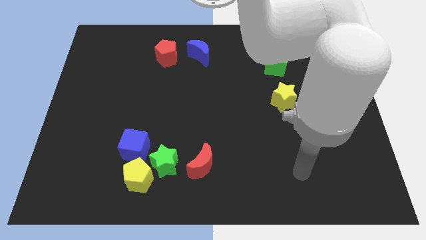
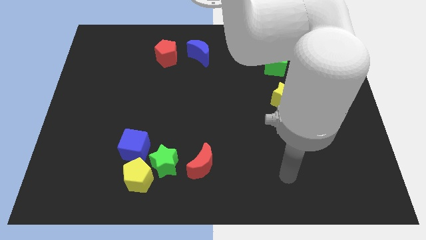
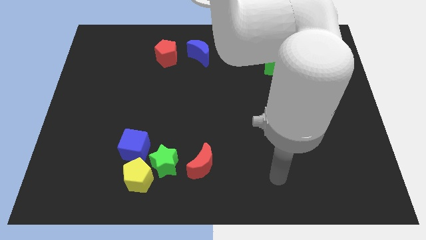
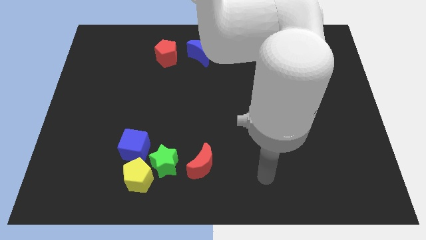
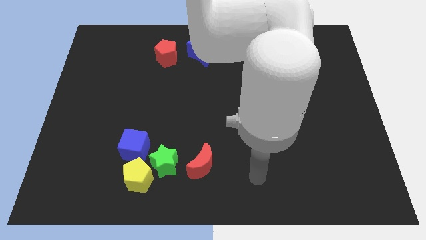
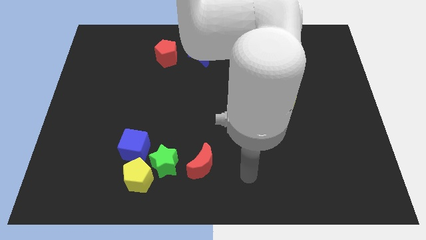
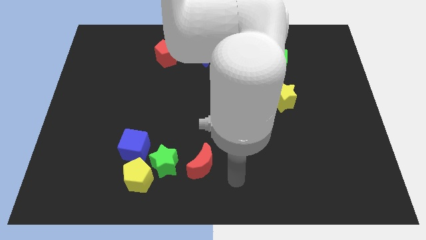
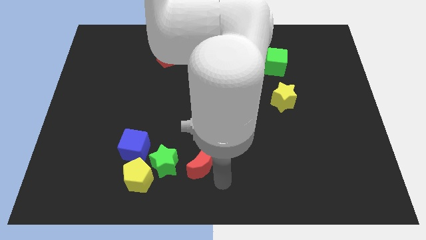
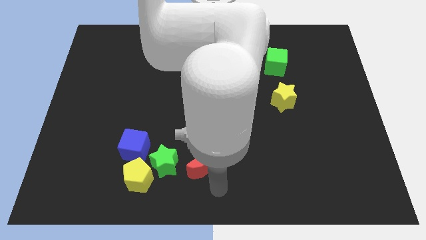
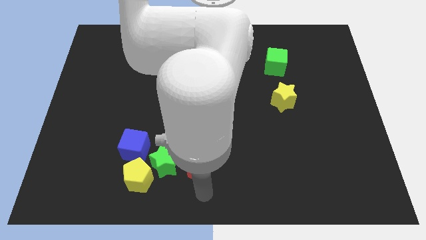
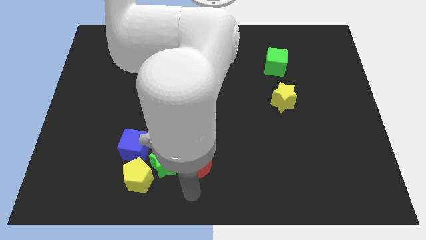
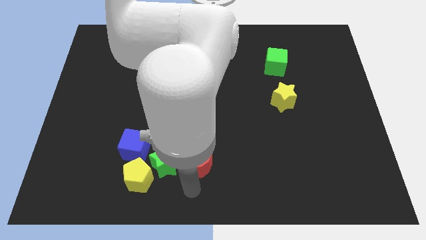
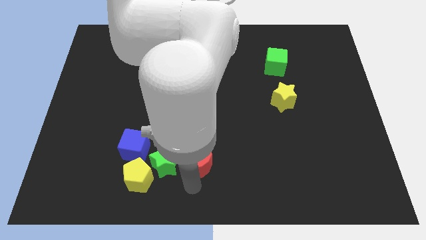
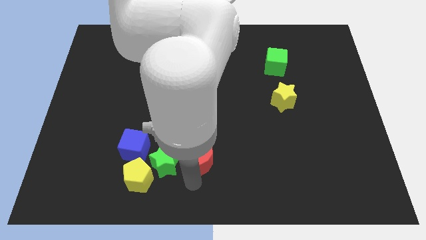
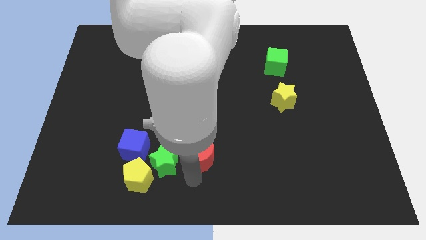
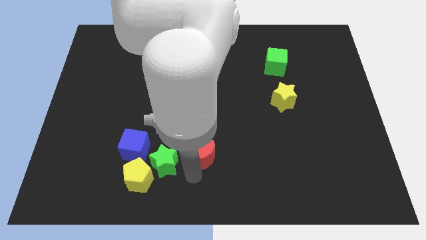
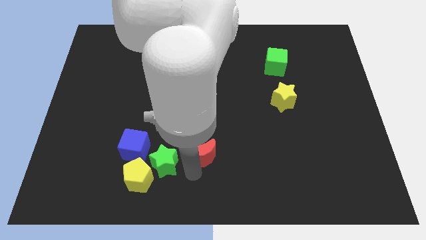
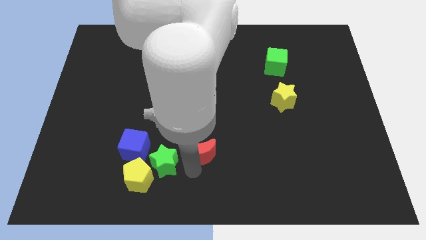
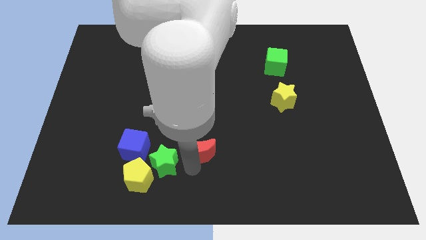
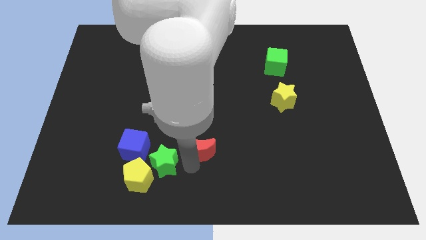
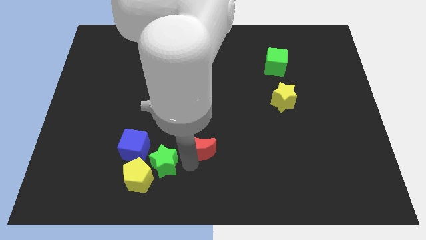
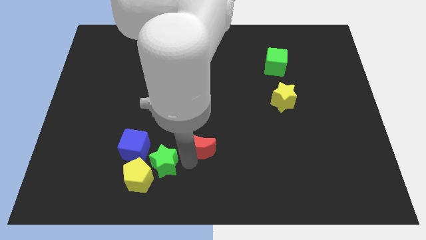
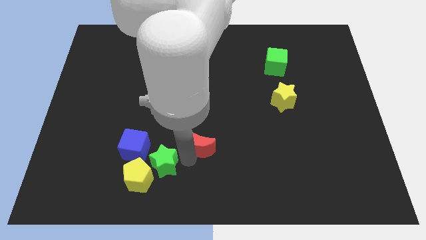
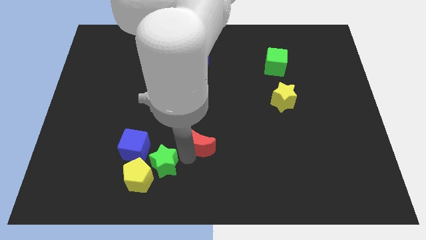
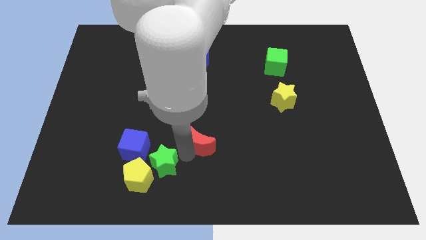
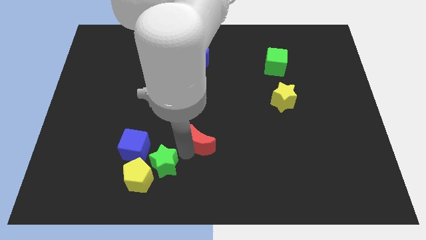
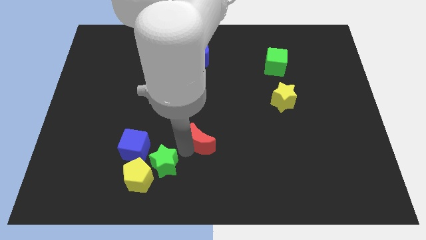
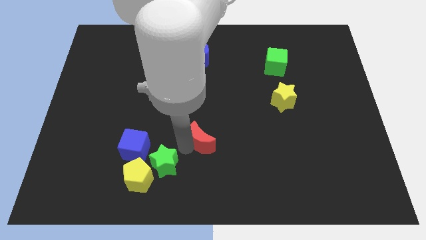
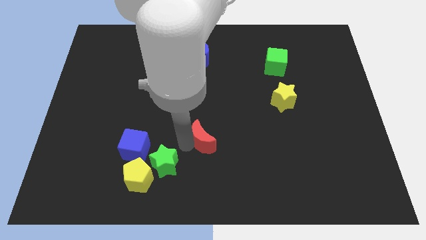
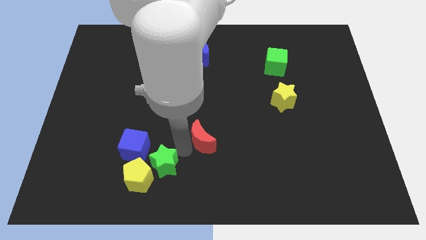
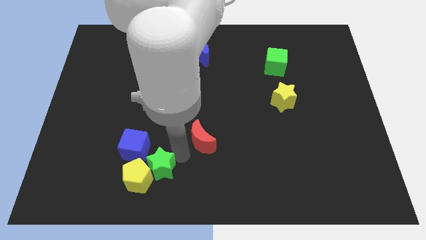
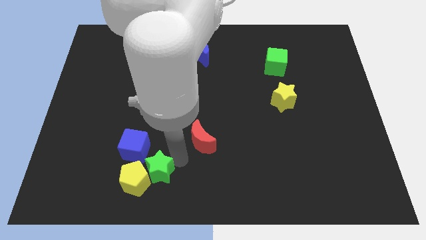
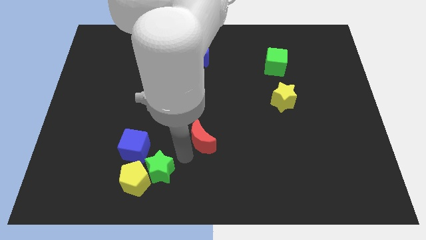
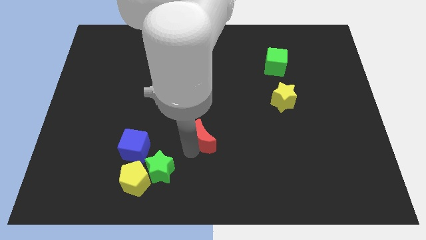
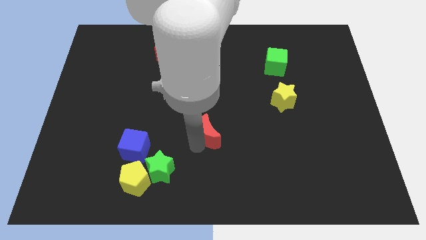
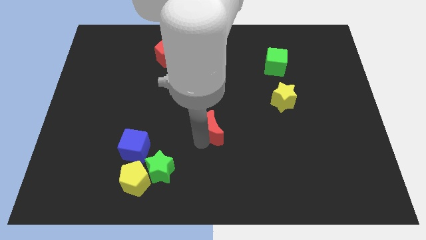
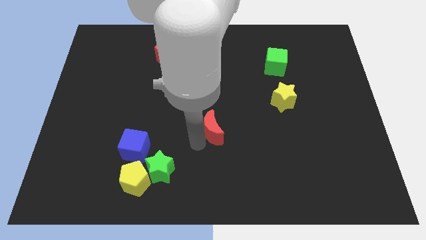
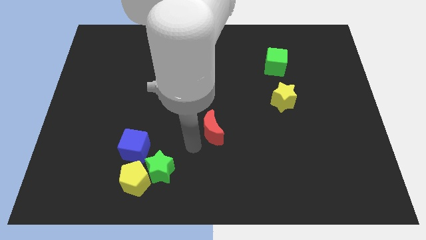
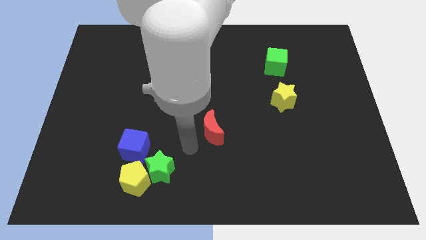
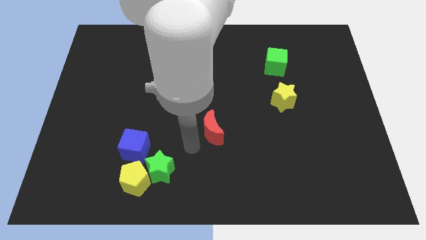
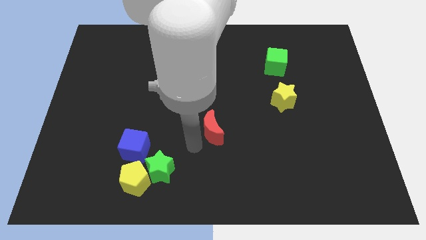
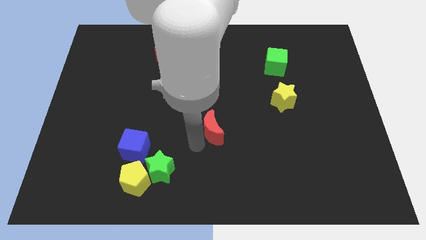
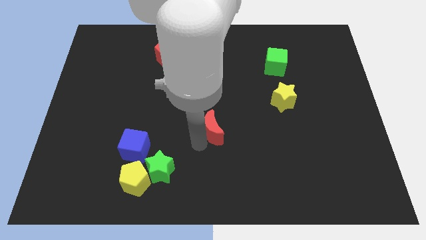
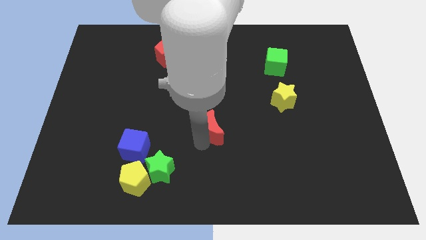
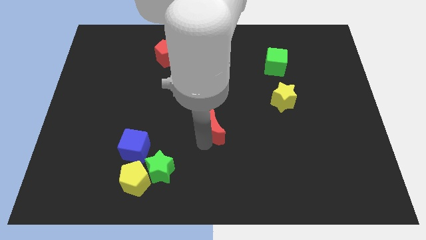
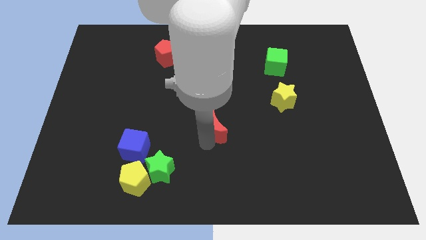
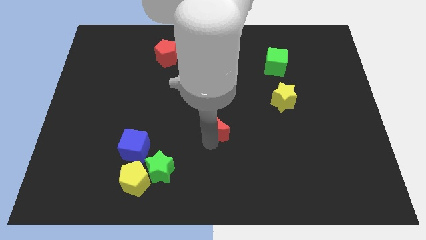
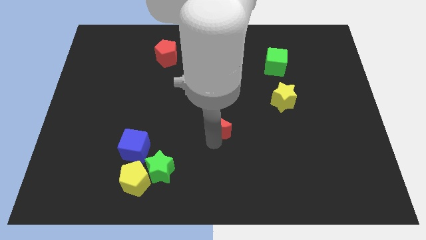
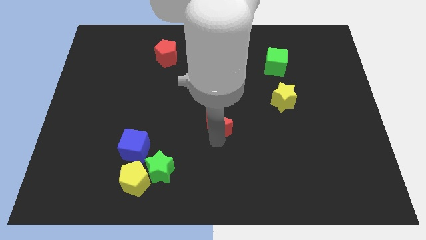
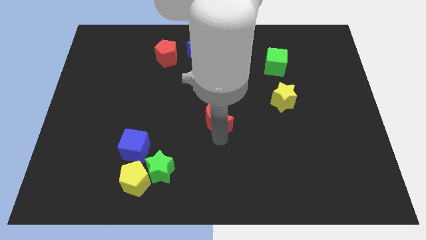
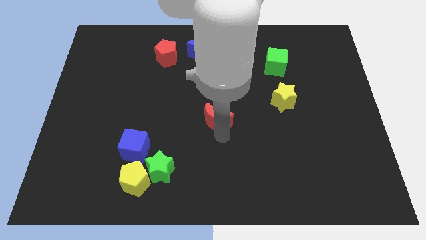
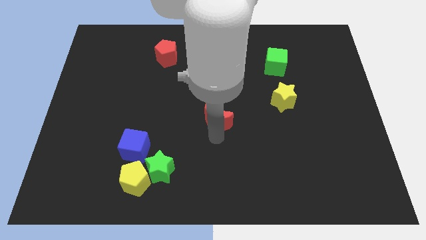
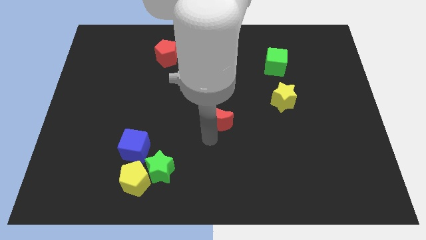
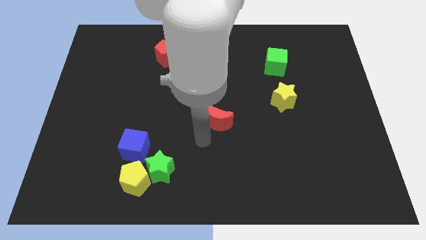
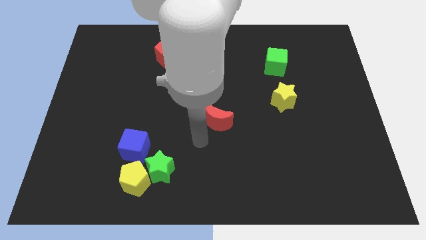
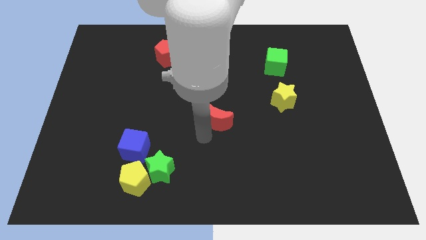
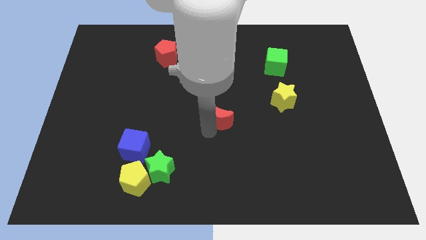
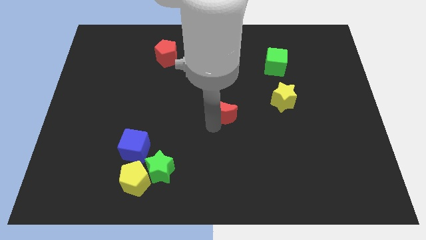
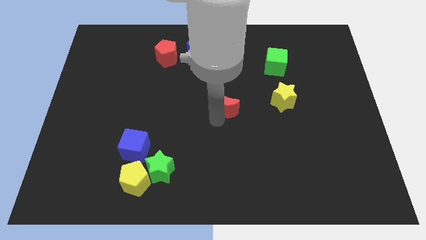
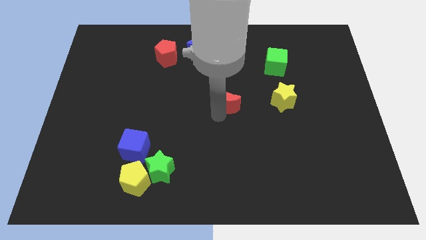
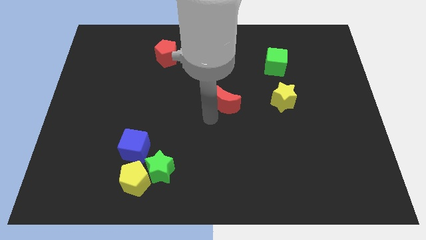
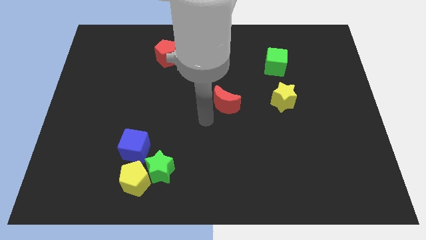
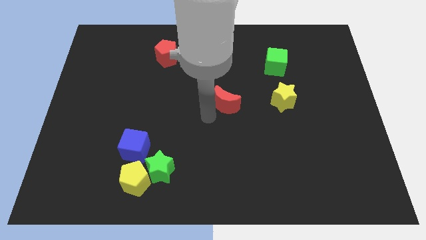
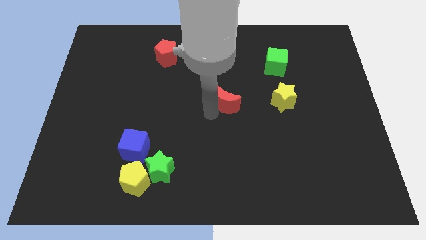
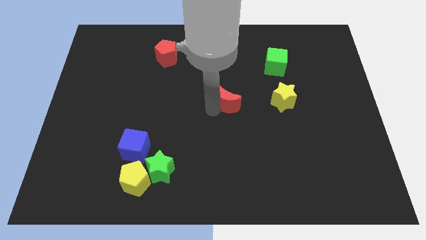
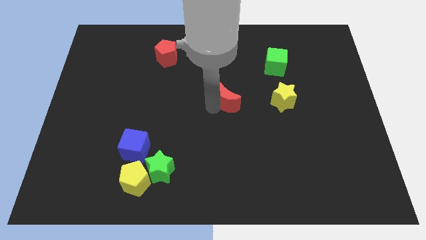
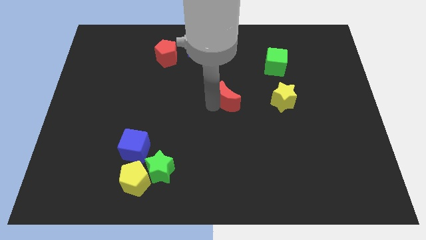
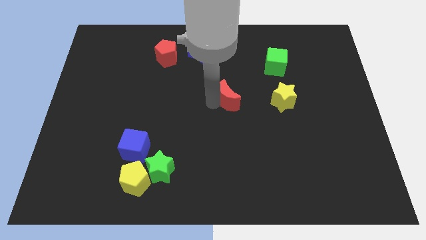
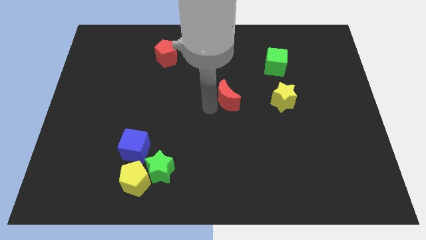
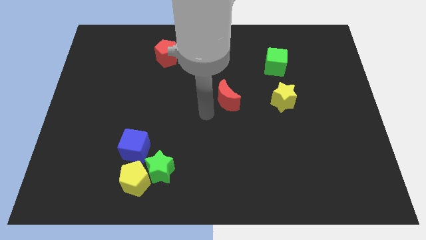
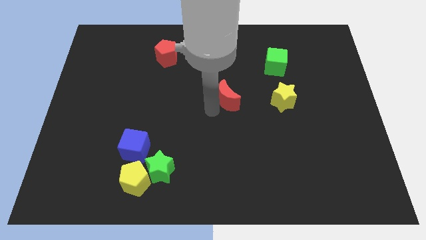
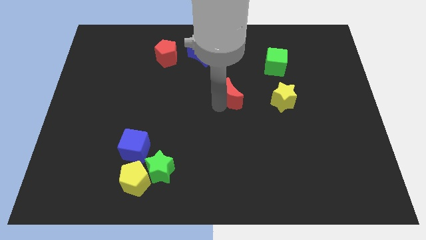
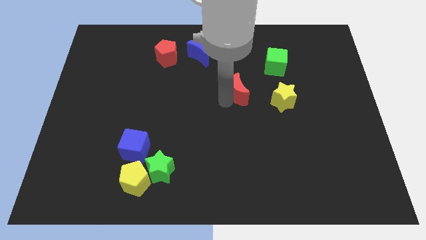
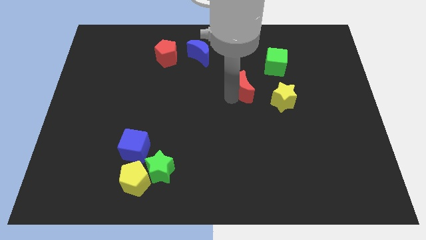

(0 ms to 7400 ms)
slide the red moon to the bottom left side of the green cube
